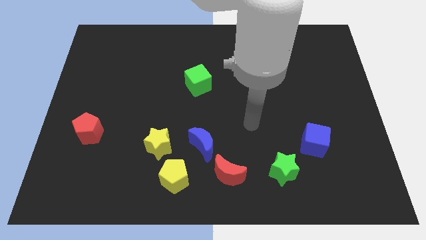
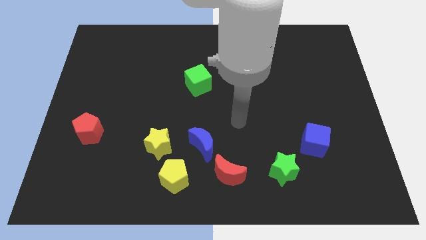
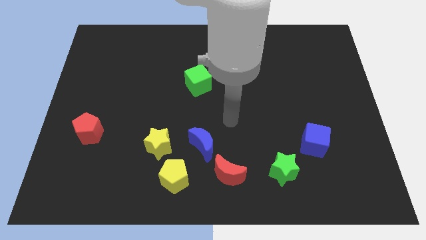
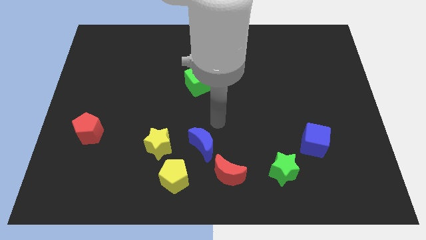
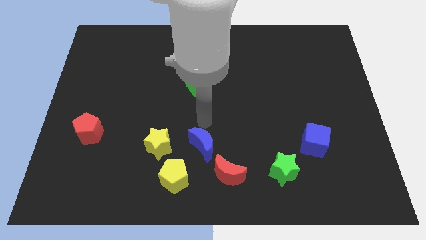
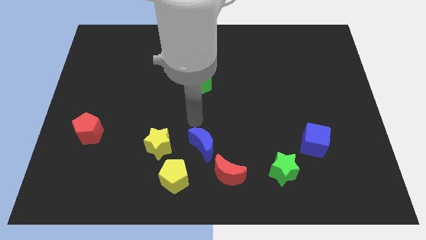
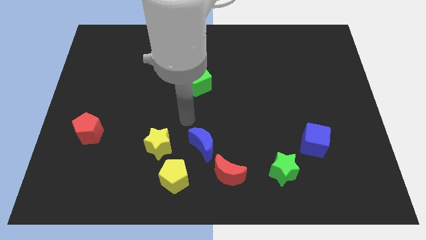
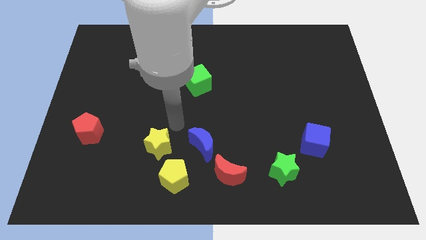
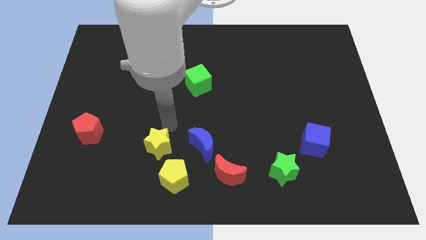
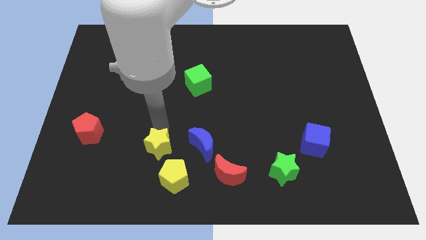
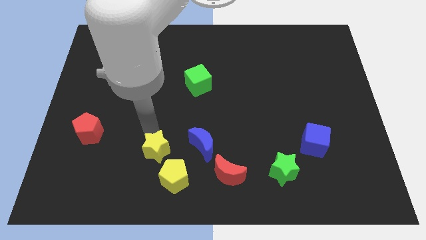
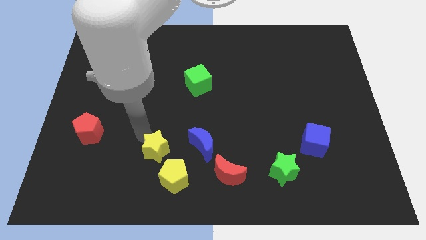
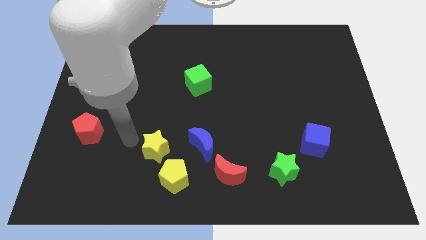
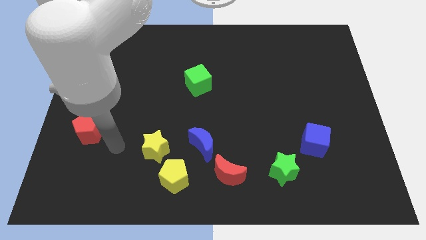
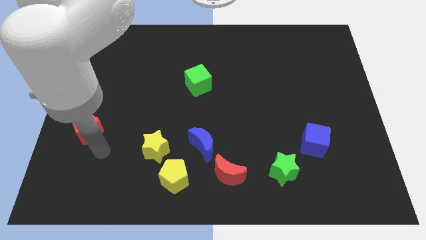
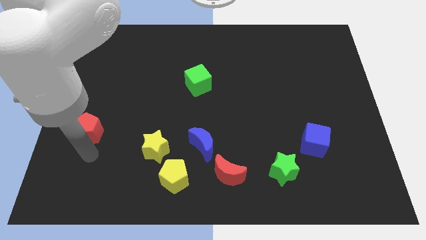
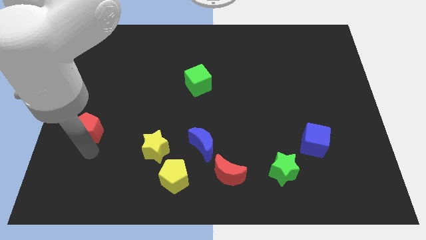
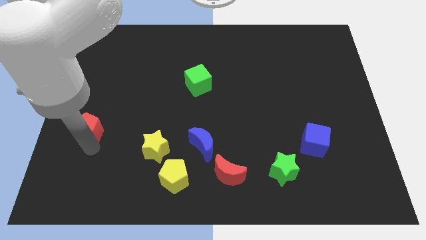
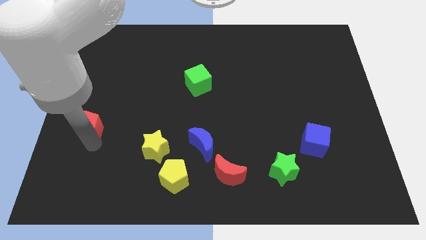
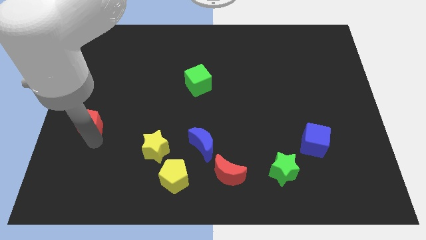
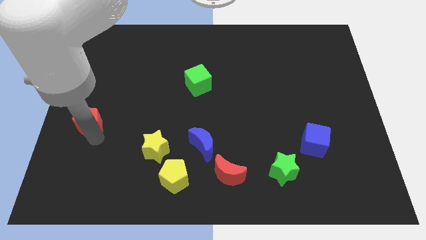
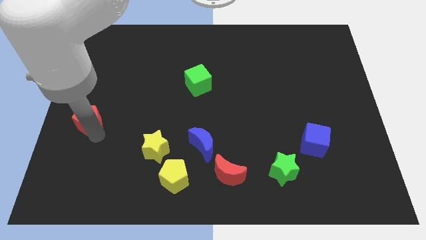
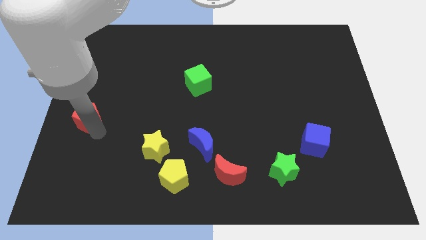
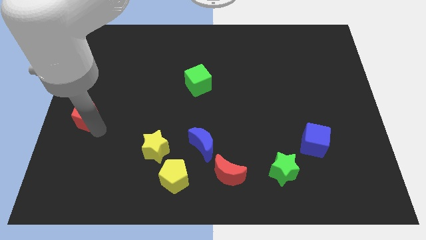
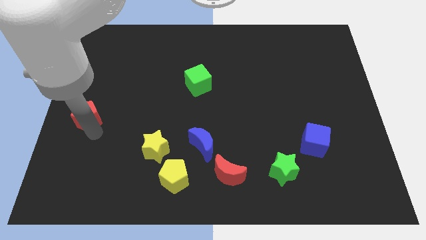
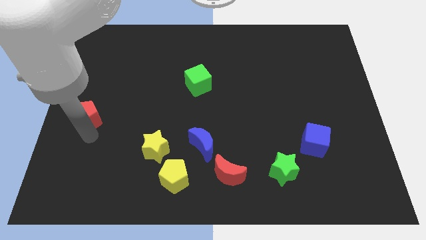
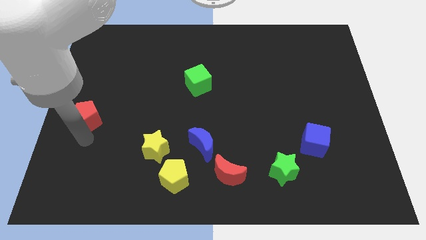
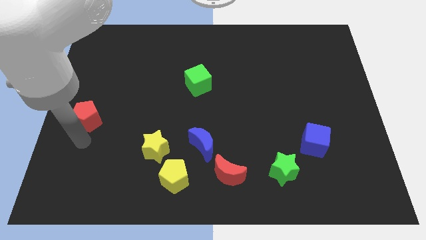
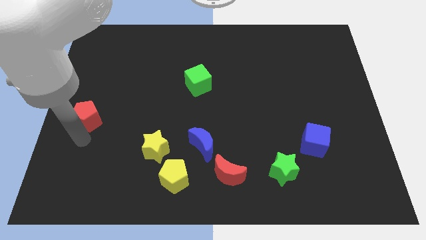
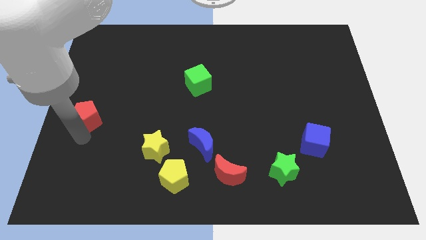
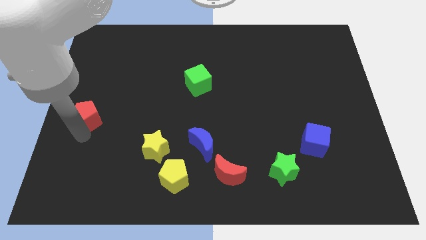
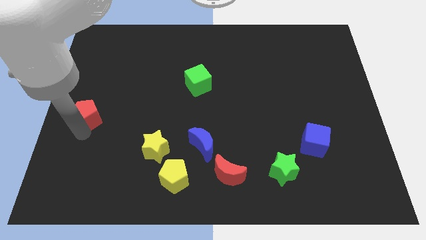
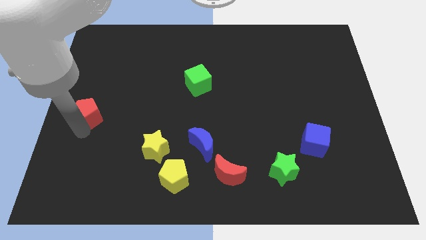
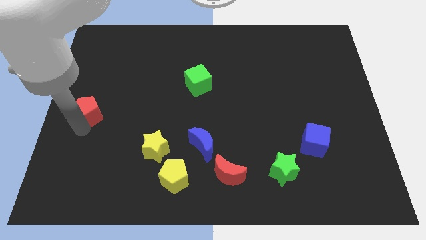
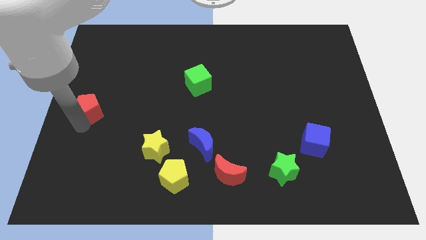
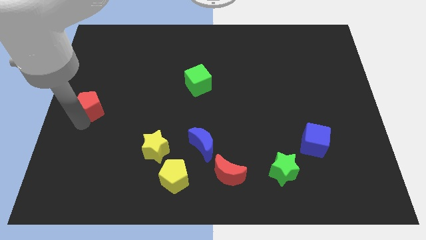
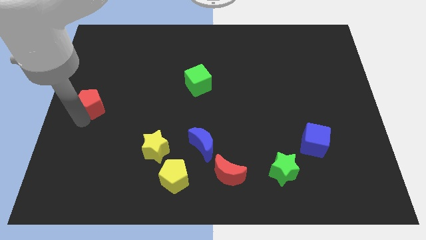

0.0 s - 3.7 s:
move the red pentagon up a little bit

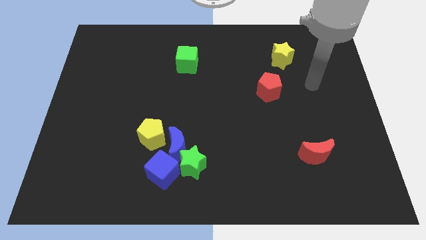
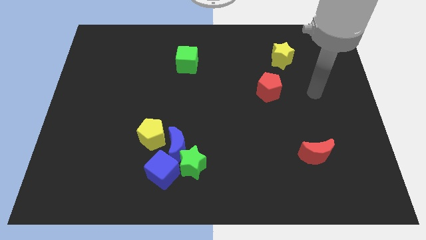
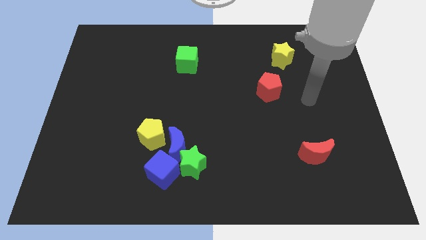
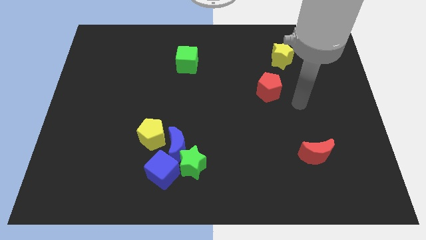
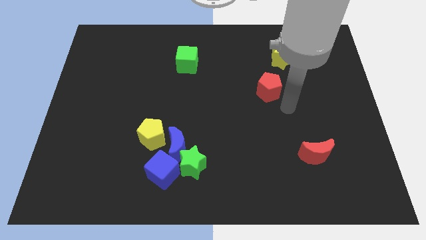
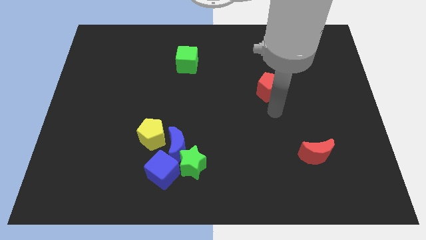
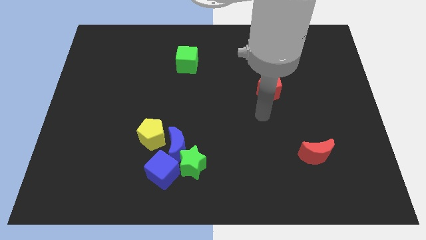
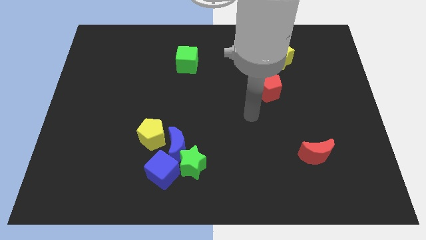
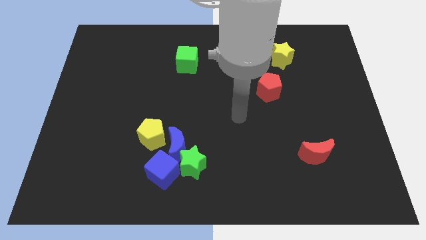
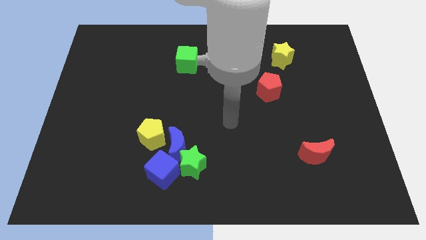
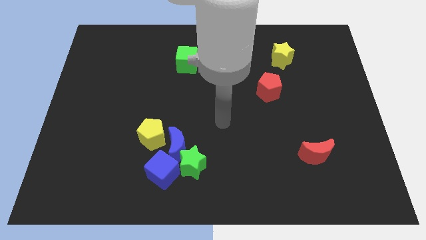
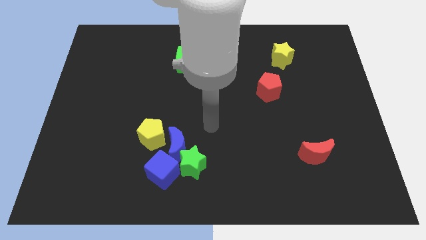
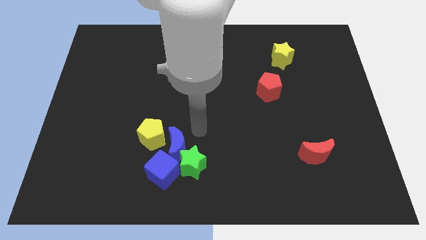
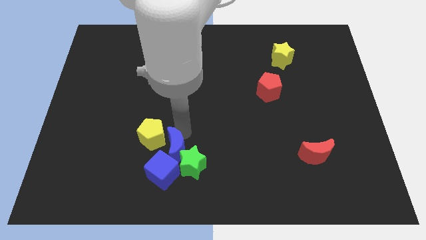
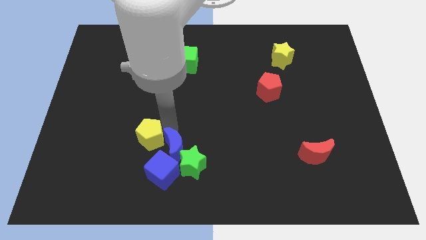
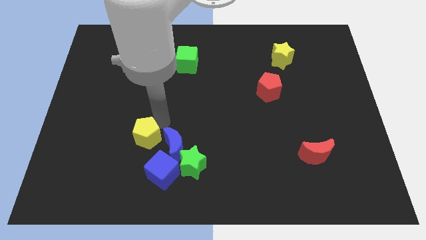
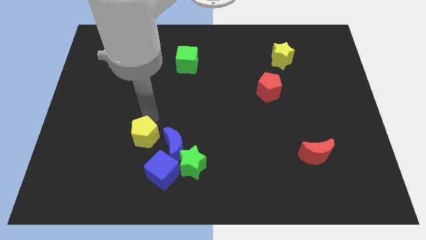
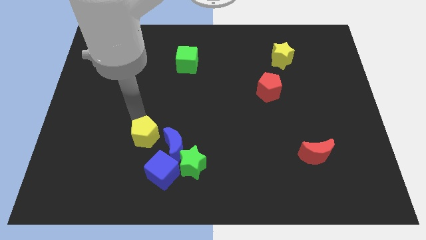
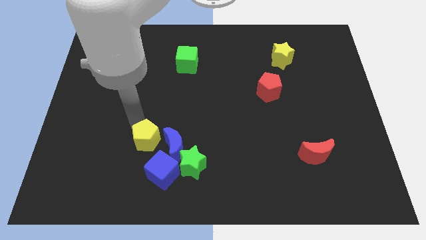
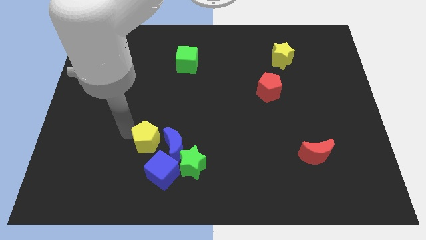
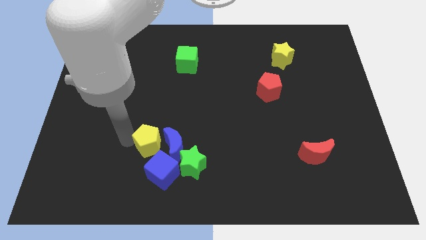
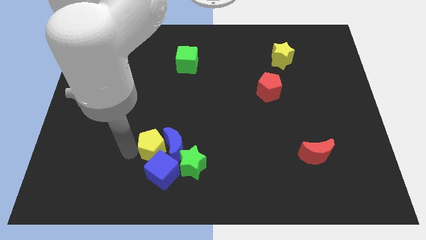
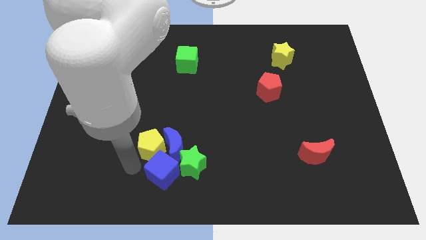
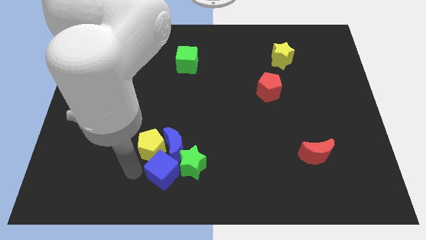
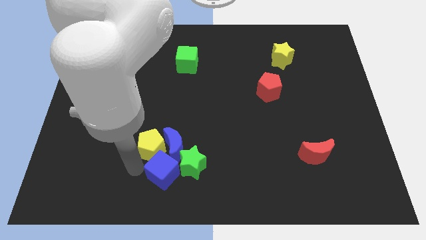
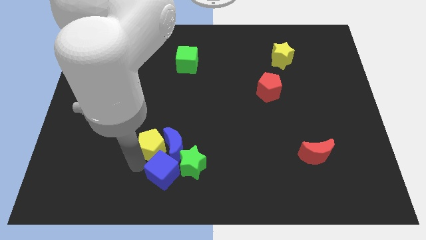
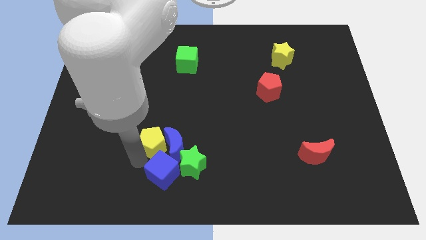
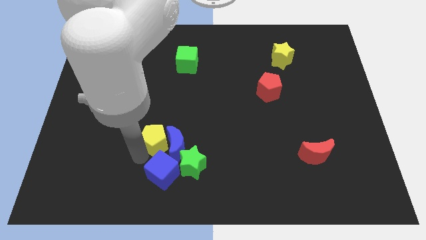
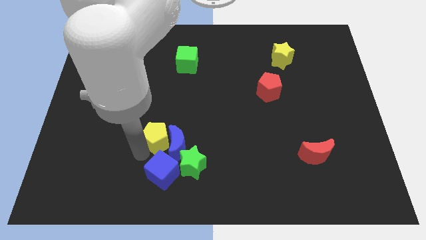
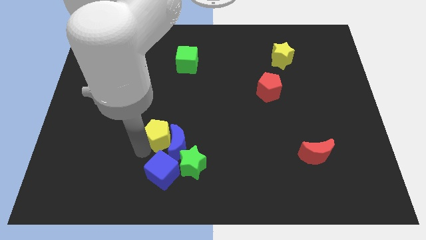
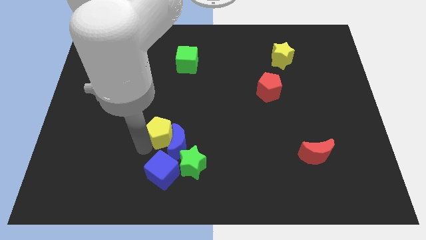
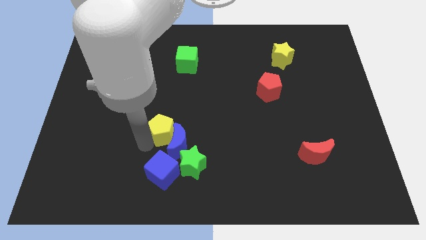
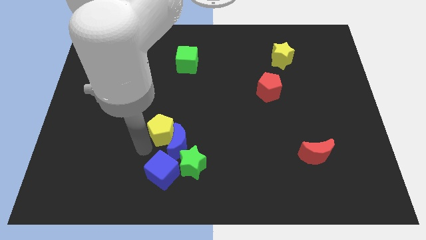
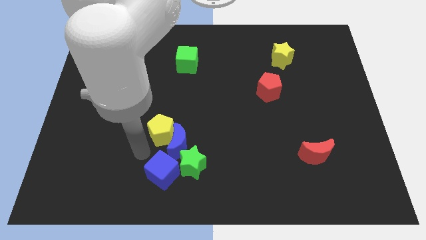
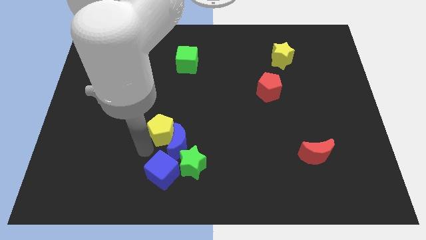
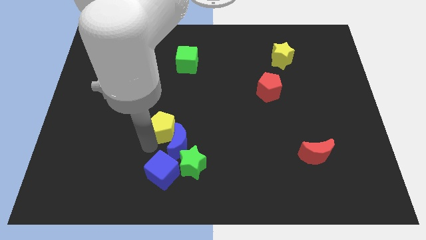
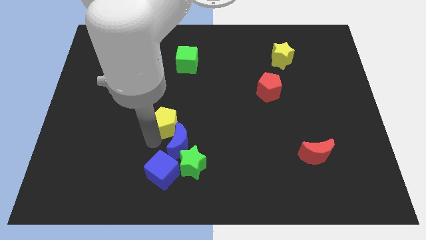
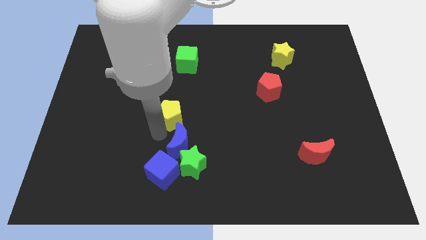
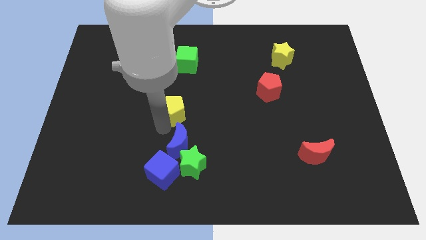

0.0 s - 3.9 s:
move the yellow pentagon somewhat up and right diagonally

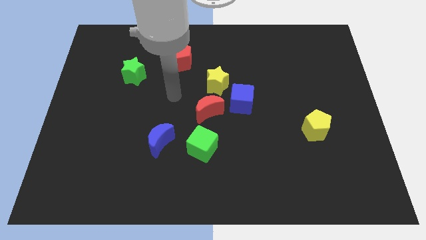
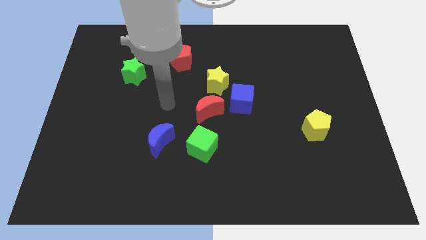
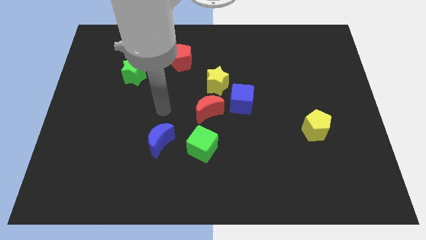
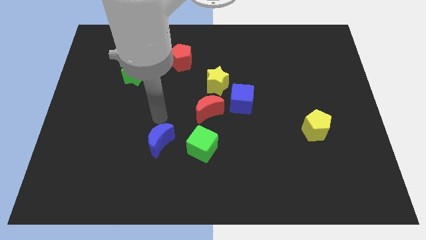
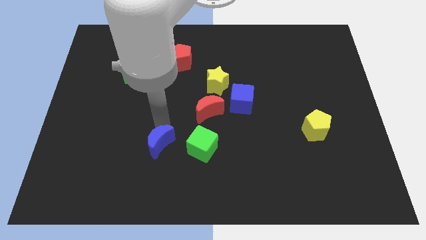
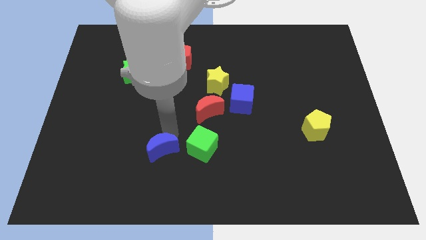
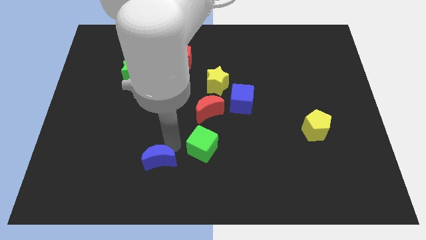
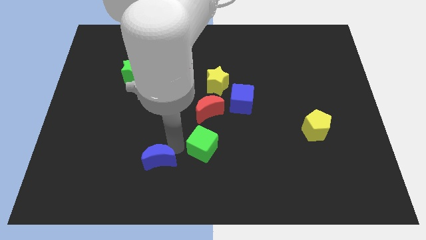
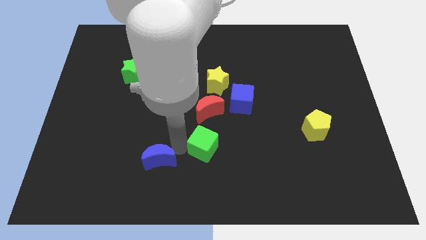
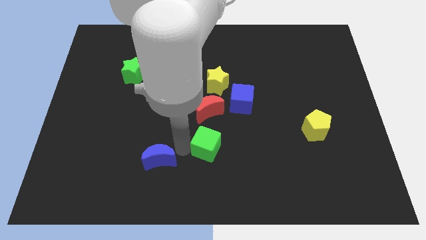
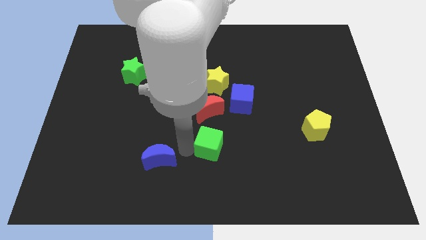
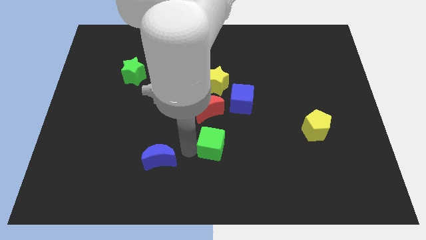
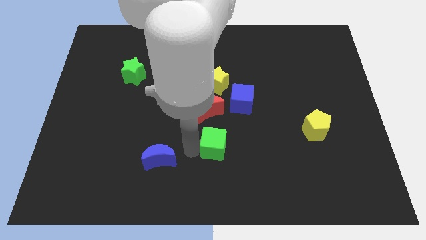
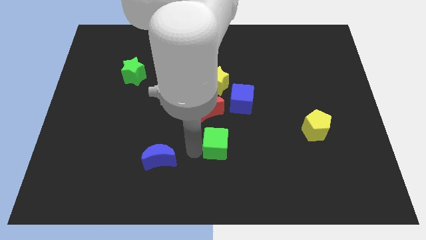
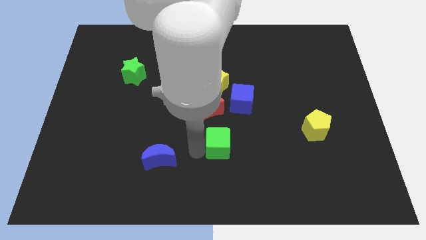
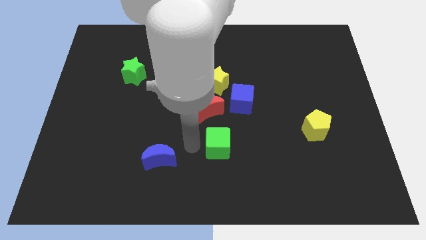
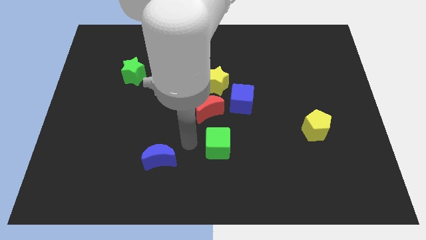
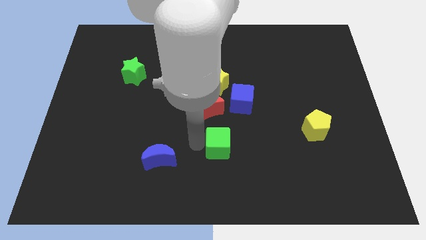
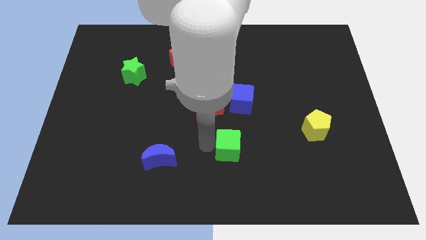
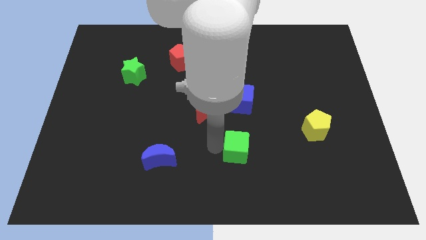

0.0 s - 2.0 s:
slide the green cube a bit to the right
